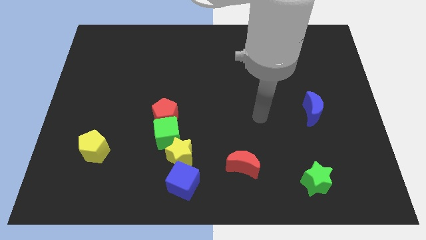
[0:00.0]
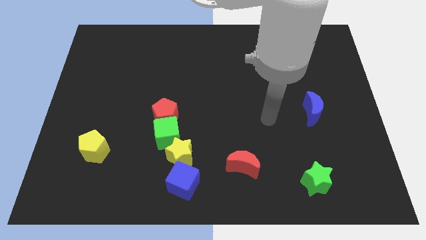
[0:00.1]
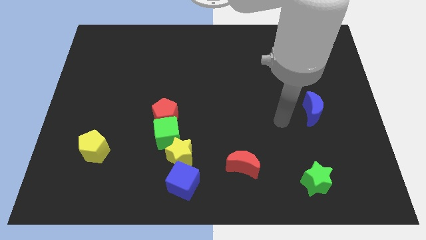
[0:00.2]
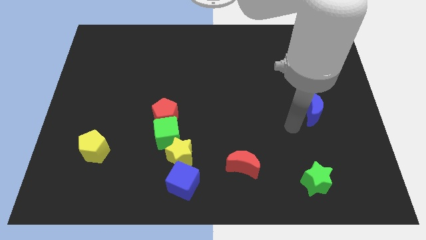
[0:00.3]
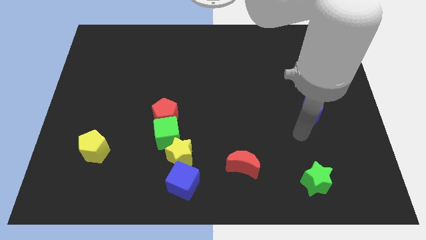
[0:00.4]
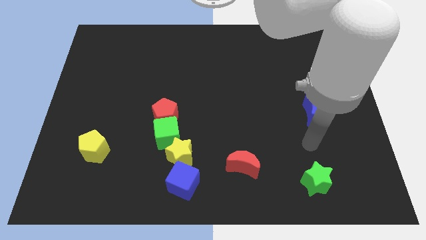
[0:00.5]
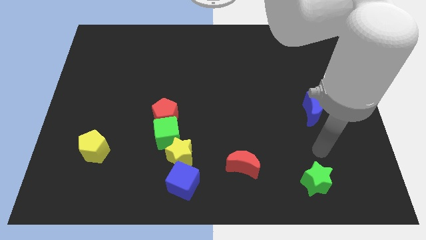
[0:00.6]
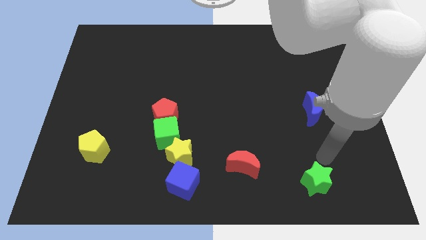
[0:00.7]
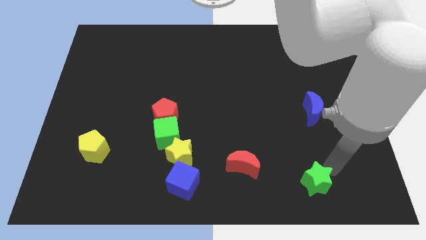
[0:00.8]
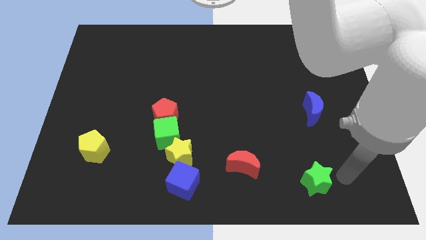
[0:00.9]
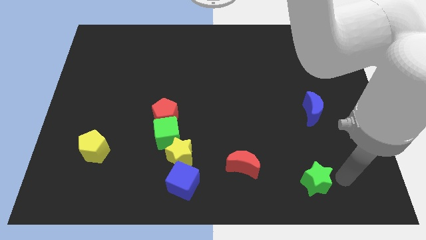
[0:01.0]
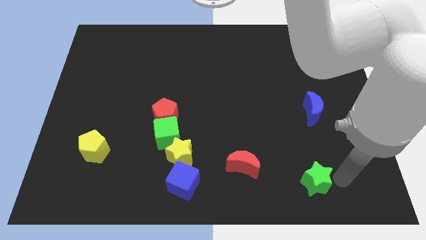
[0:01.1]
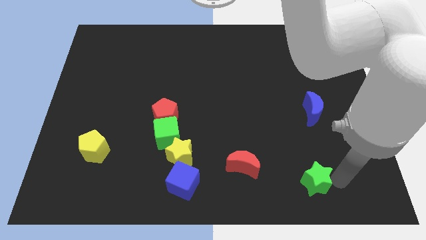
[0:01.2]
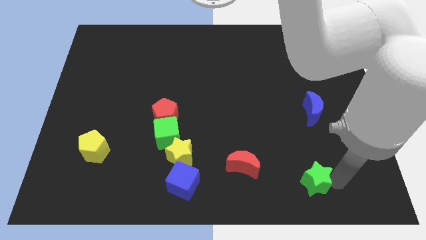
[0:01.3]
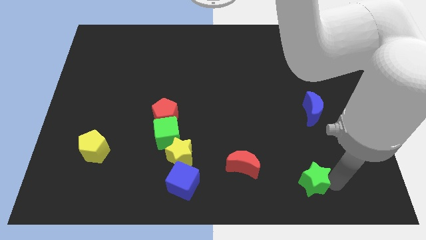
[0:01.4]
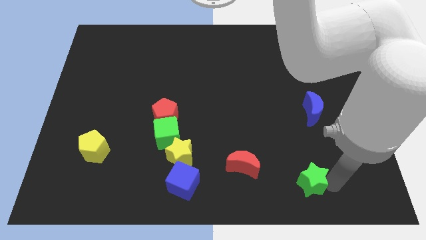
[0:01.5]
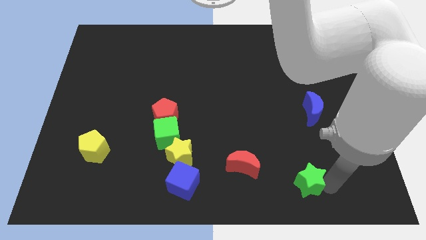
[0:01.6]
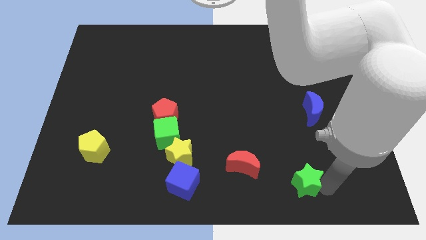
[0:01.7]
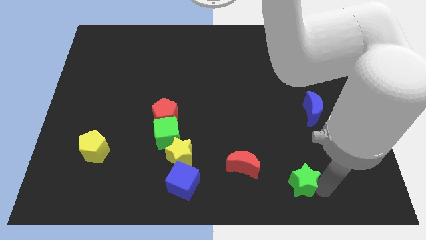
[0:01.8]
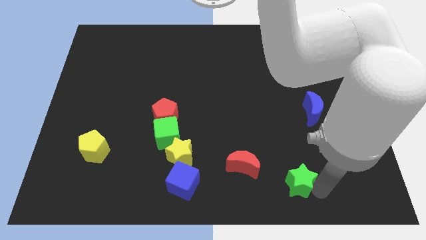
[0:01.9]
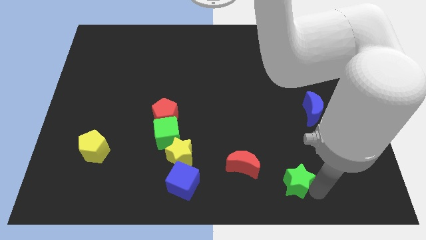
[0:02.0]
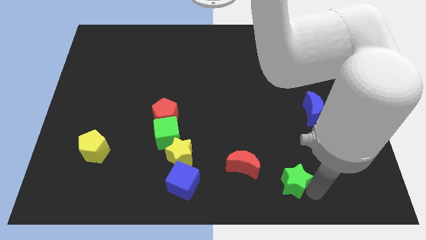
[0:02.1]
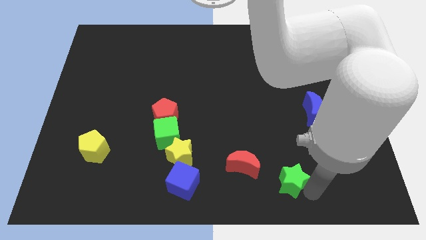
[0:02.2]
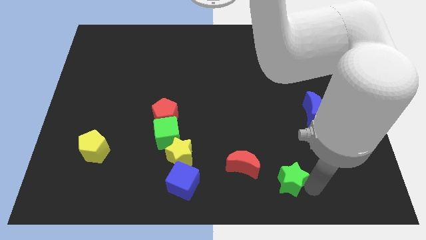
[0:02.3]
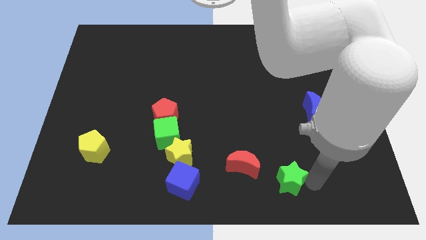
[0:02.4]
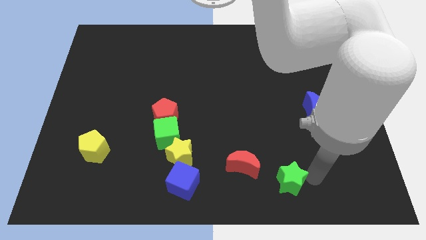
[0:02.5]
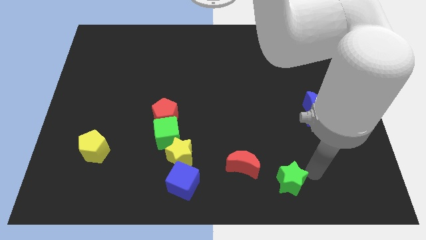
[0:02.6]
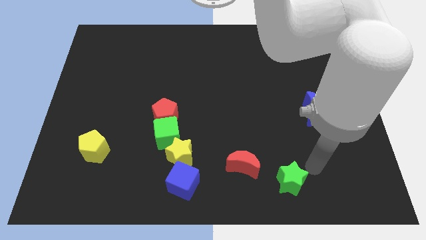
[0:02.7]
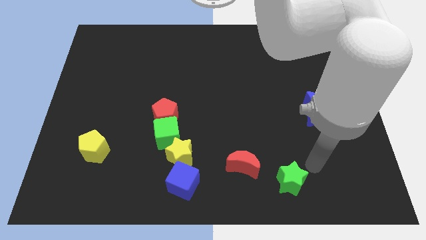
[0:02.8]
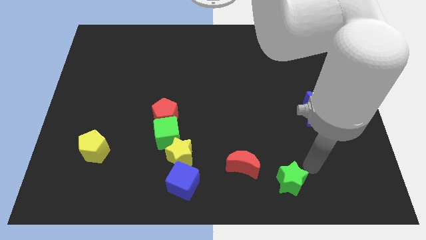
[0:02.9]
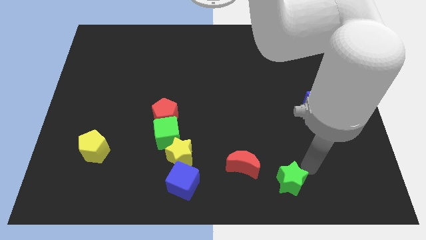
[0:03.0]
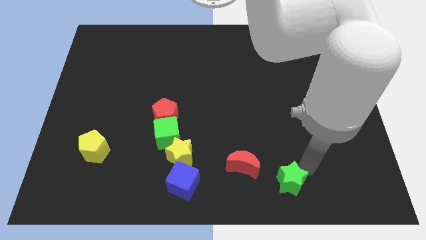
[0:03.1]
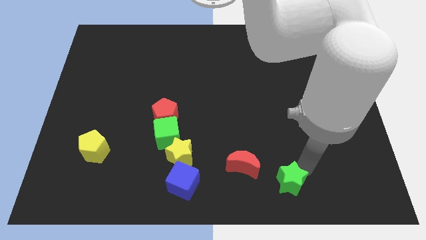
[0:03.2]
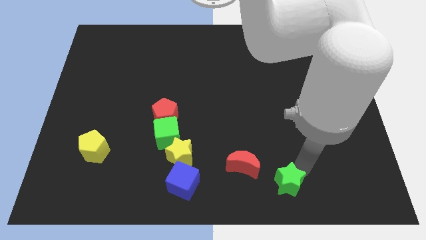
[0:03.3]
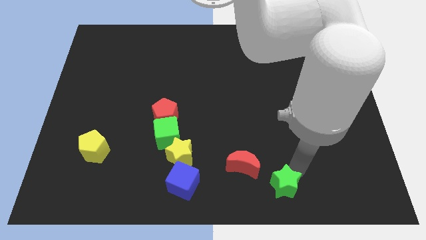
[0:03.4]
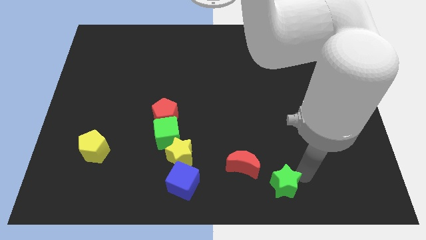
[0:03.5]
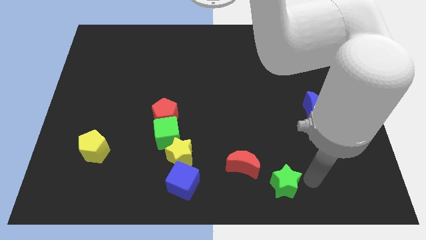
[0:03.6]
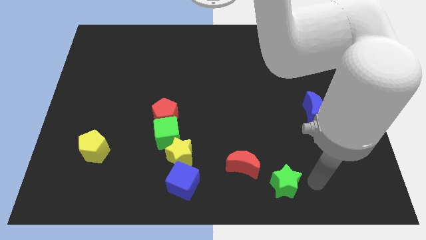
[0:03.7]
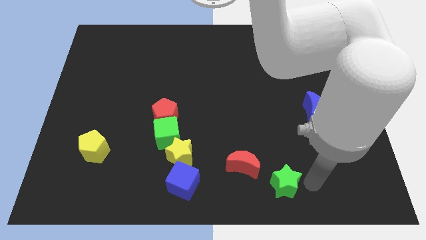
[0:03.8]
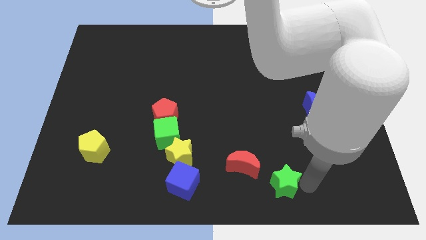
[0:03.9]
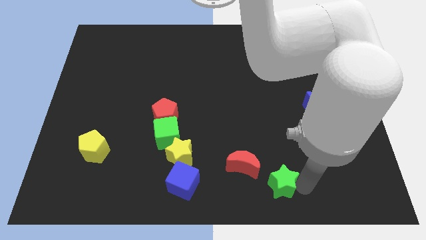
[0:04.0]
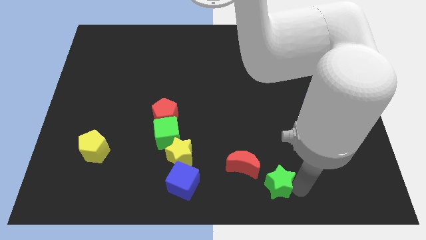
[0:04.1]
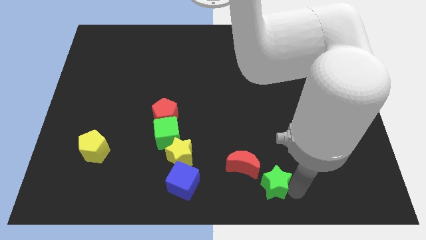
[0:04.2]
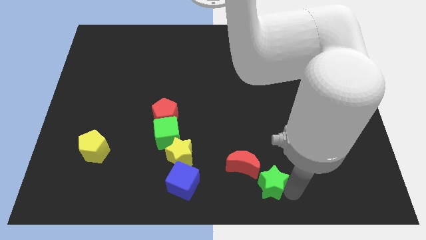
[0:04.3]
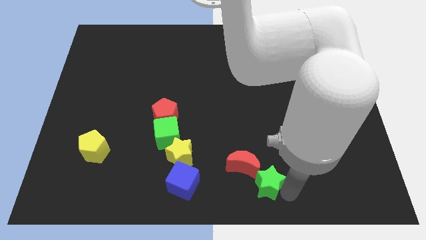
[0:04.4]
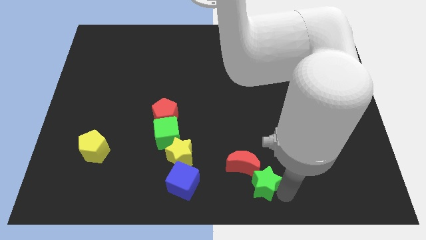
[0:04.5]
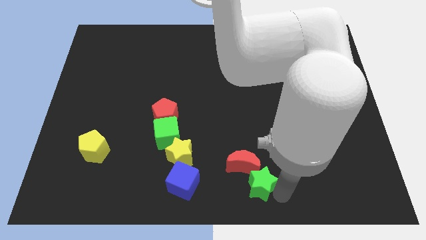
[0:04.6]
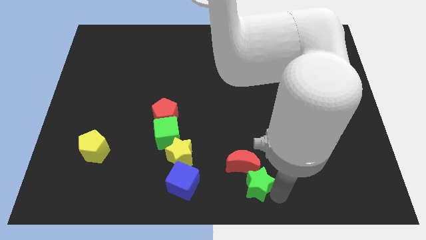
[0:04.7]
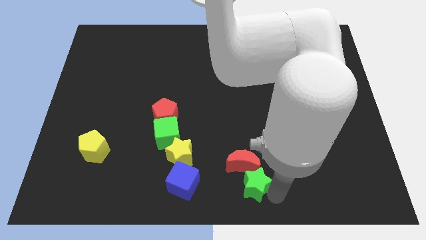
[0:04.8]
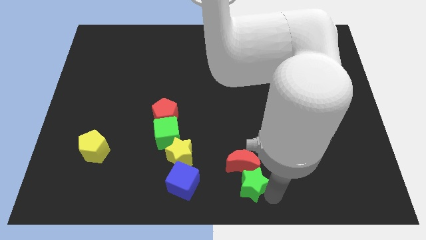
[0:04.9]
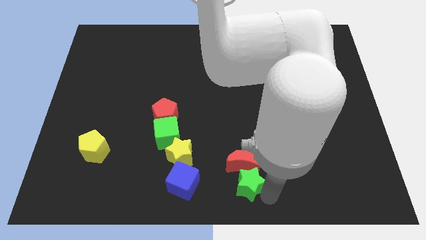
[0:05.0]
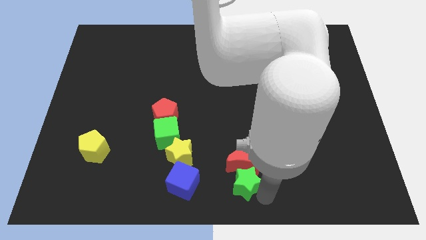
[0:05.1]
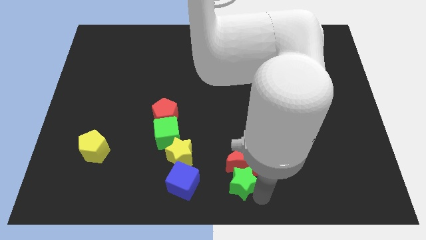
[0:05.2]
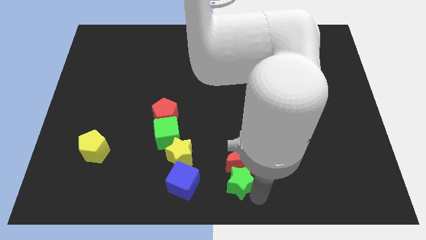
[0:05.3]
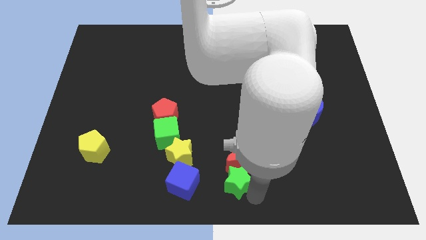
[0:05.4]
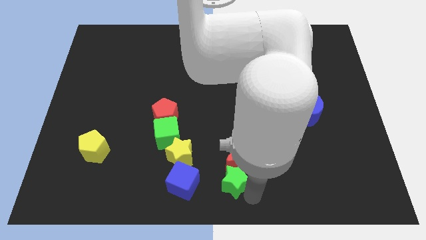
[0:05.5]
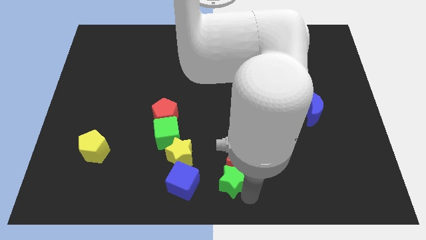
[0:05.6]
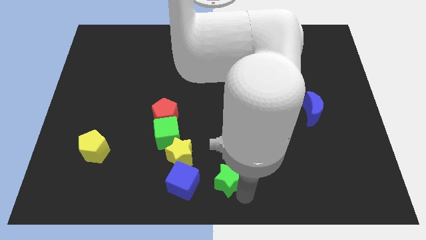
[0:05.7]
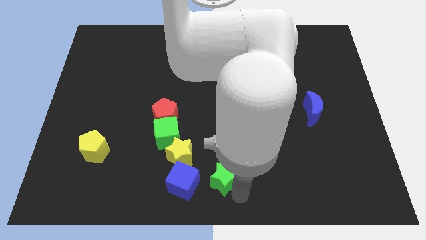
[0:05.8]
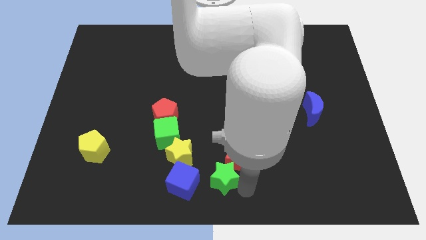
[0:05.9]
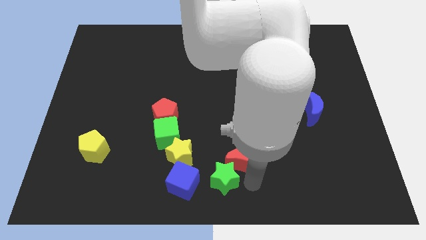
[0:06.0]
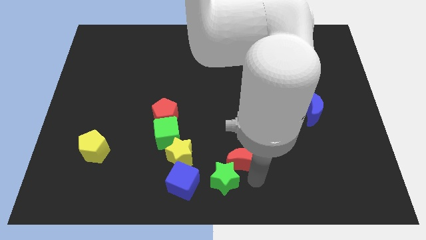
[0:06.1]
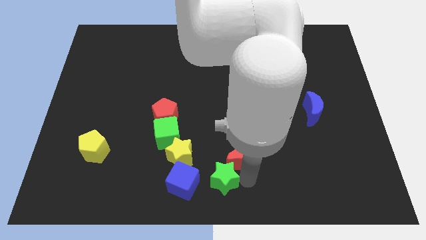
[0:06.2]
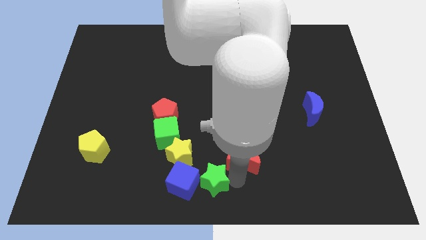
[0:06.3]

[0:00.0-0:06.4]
put the green star to the blue cube

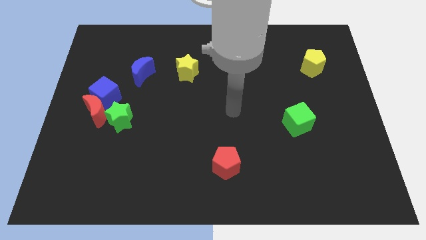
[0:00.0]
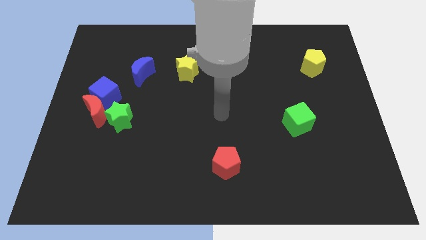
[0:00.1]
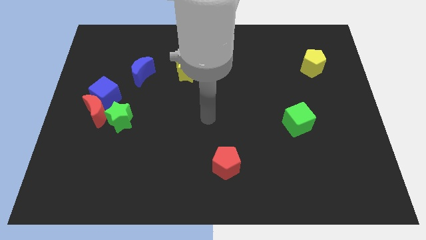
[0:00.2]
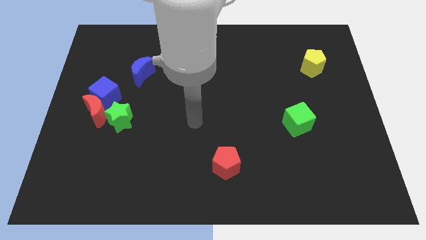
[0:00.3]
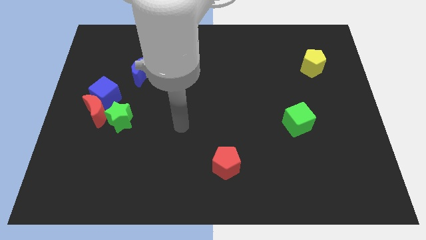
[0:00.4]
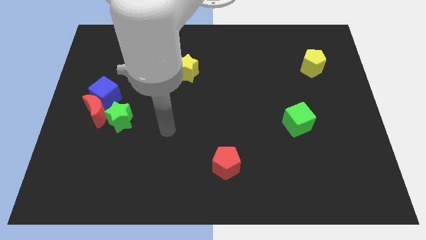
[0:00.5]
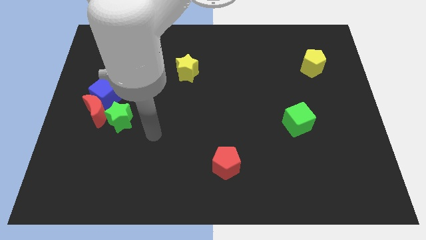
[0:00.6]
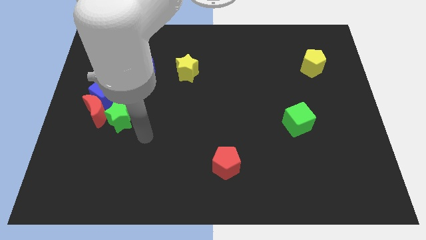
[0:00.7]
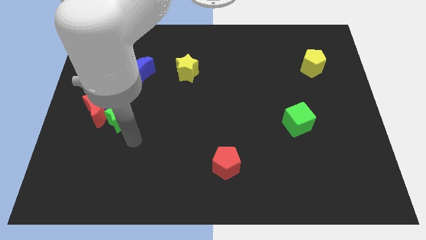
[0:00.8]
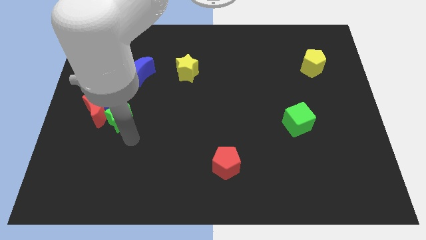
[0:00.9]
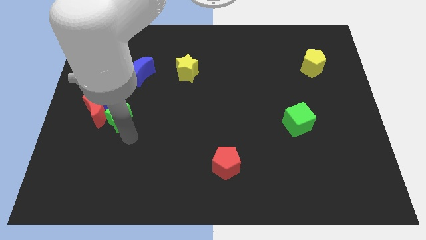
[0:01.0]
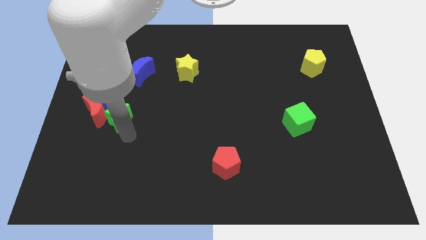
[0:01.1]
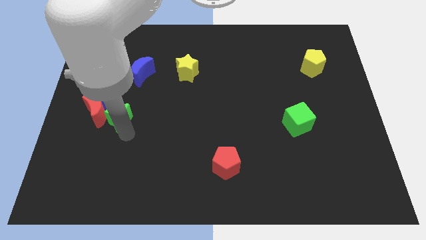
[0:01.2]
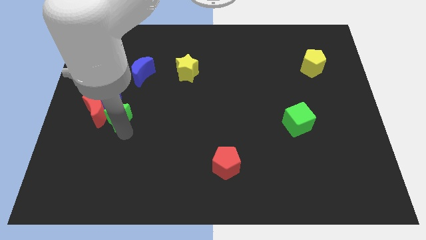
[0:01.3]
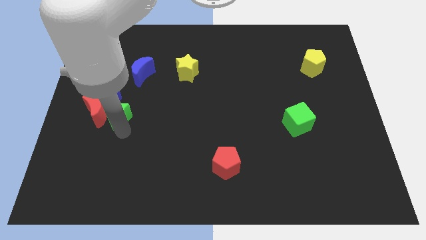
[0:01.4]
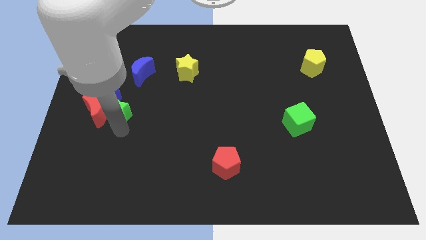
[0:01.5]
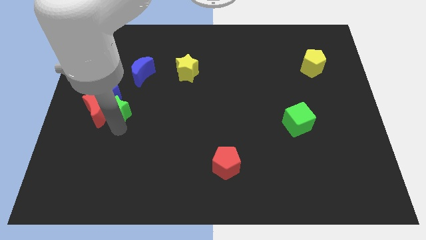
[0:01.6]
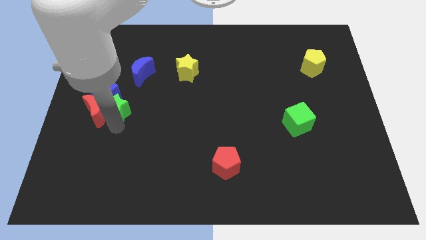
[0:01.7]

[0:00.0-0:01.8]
push the green star towards the blue cube
